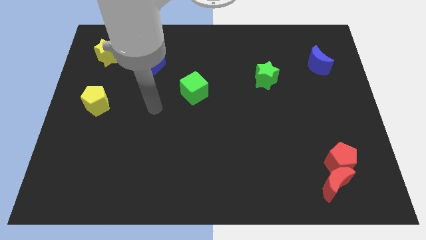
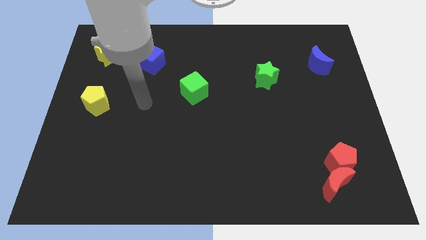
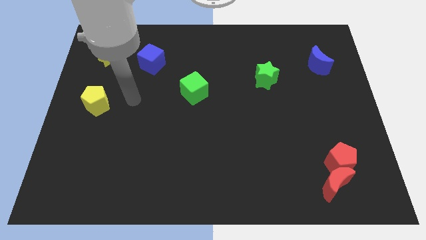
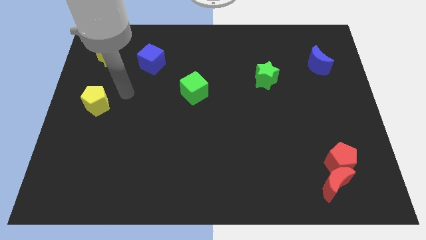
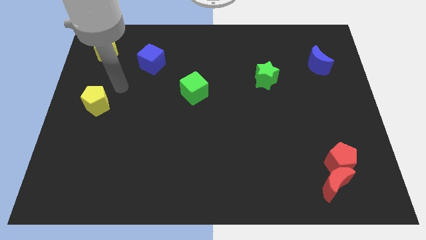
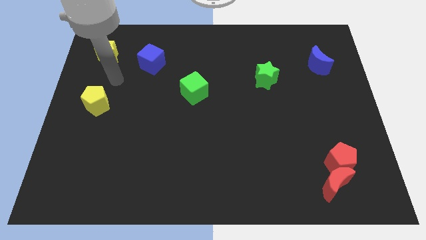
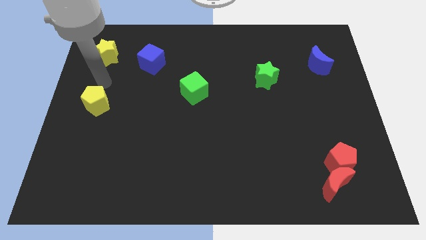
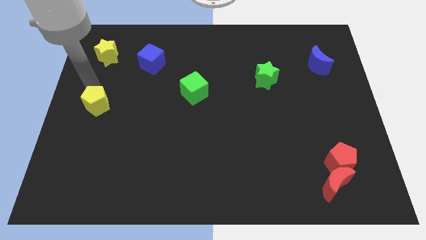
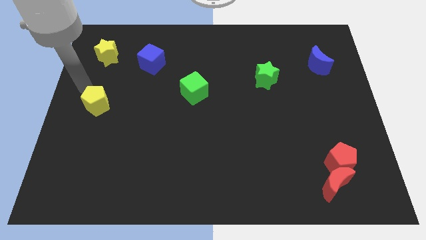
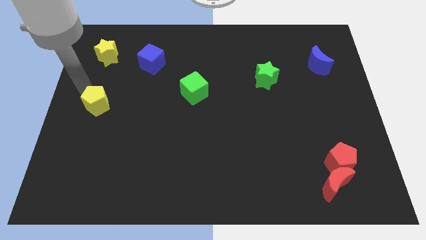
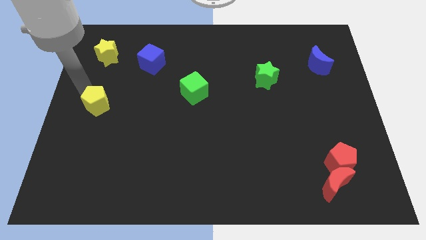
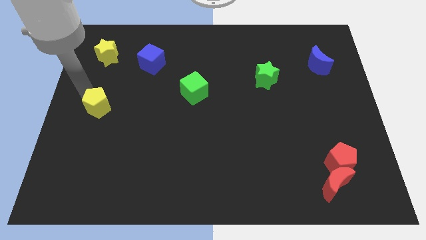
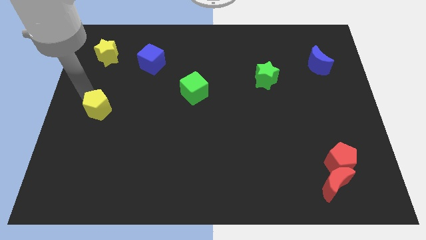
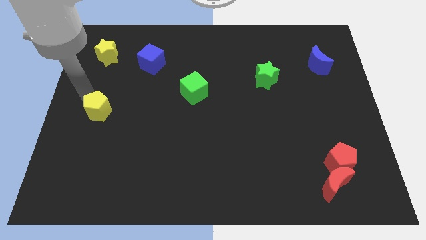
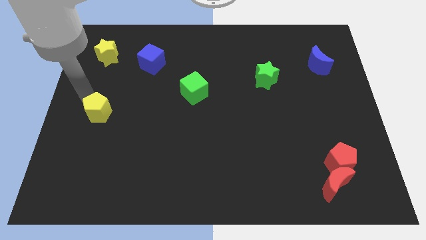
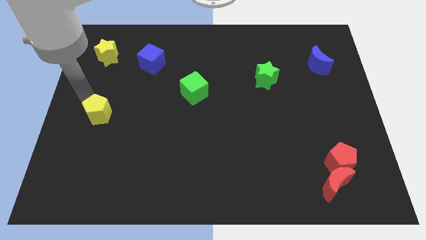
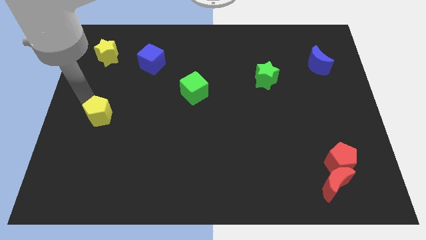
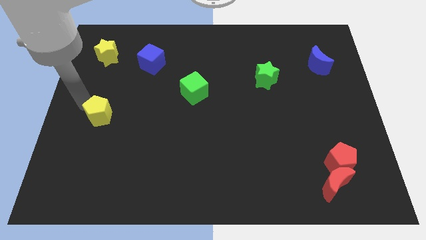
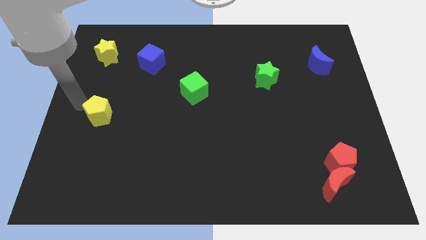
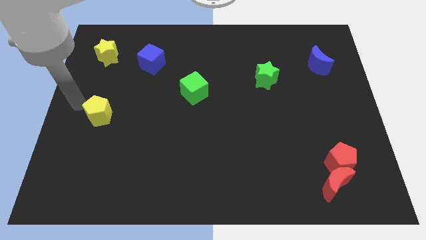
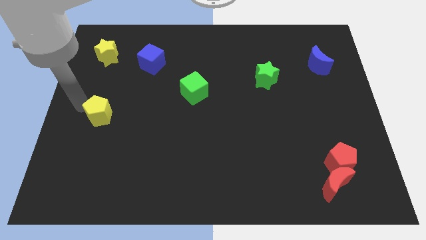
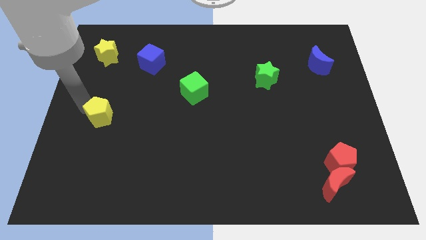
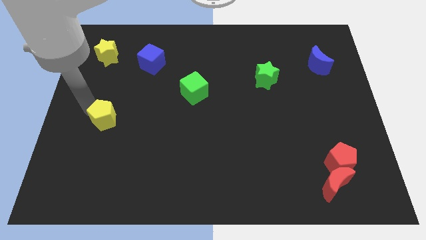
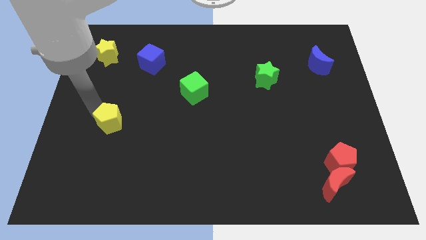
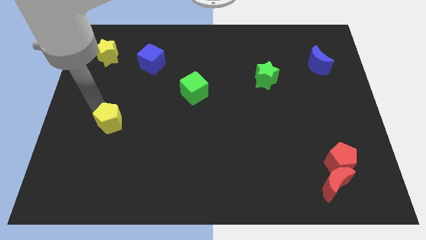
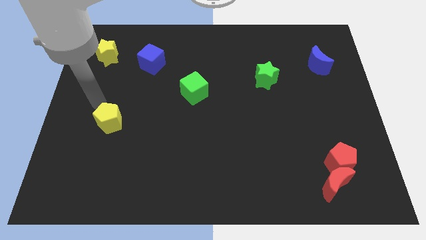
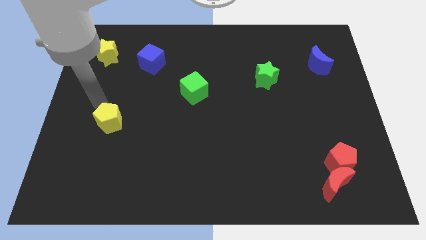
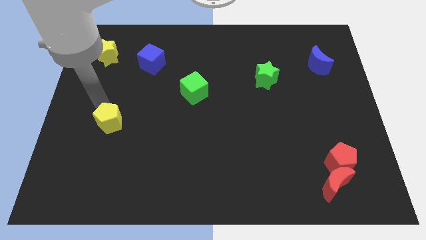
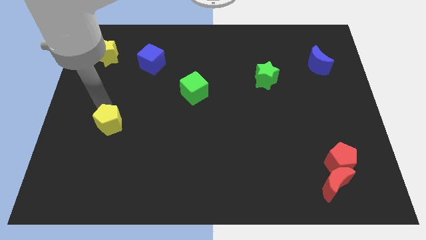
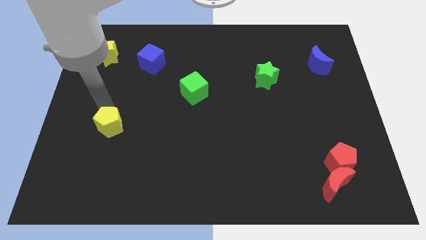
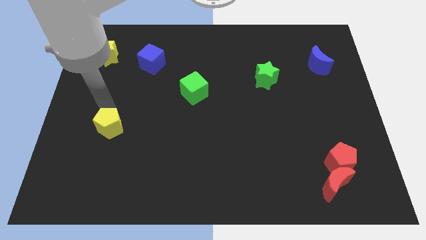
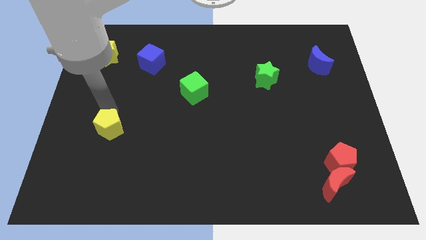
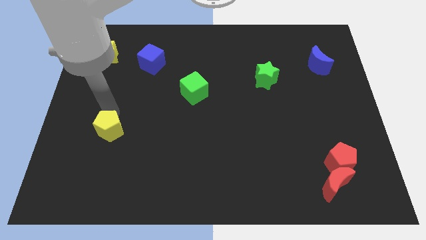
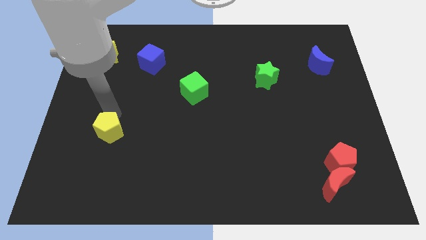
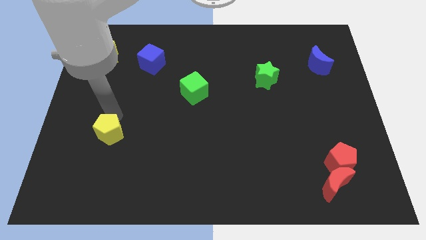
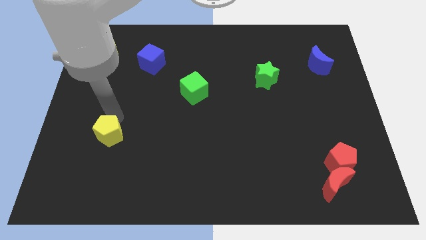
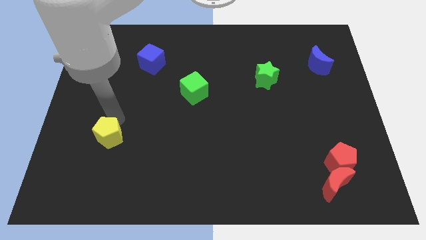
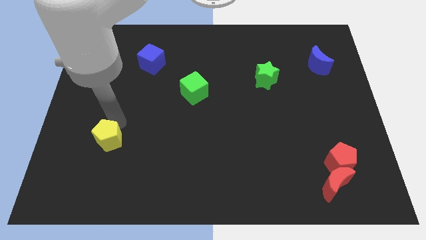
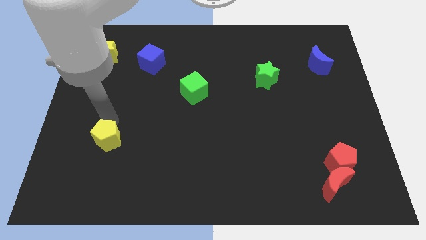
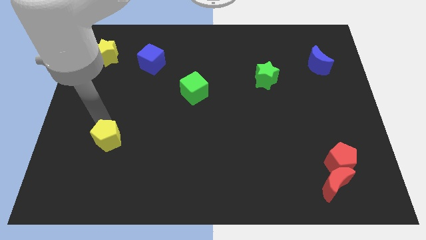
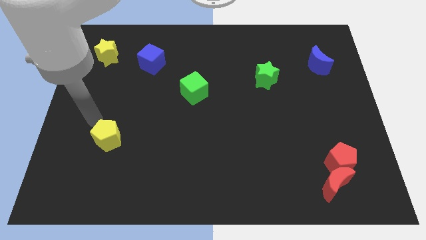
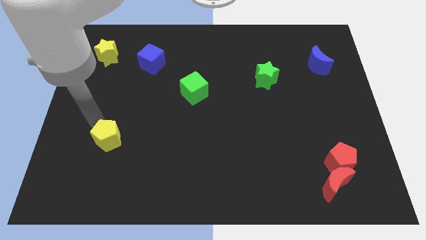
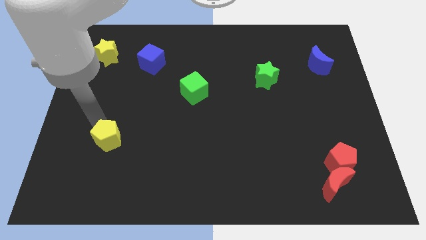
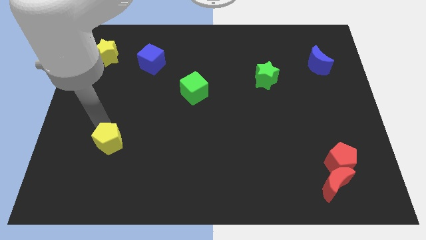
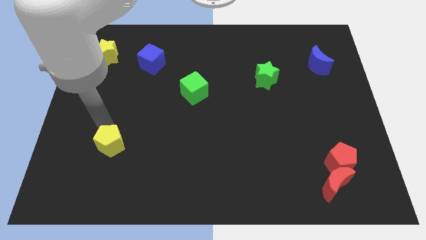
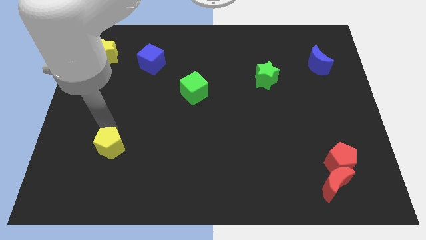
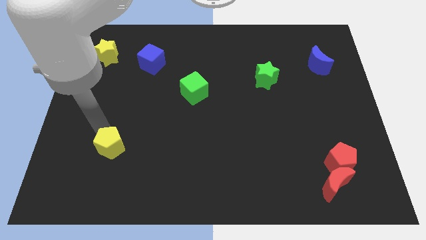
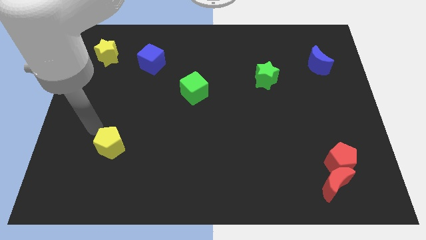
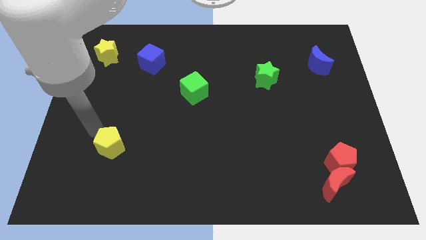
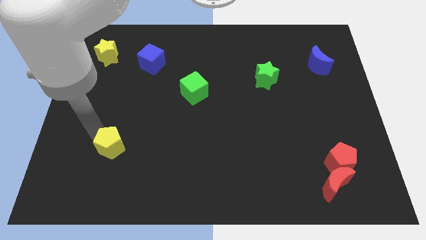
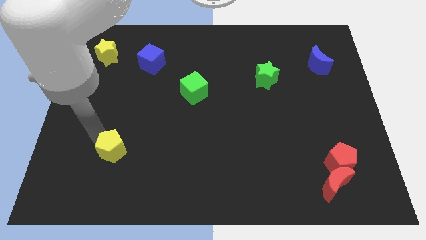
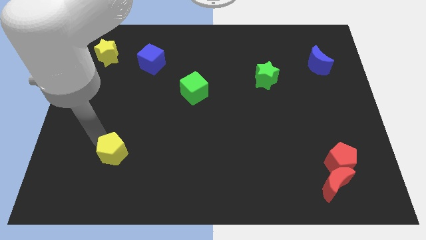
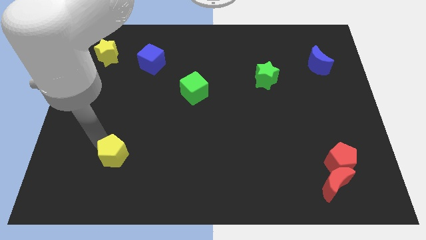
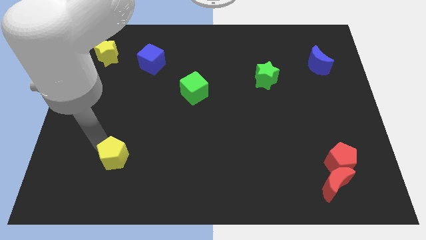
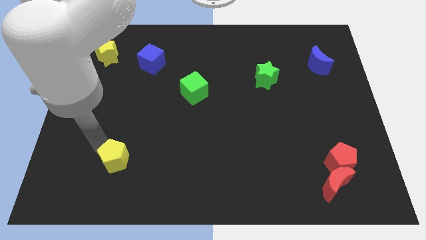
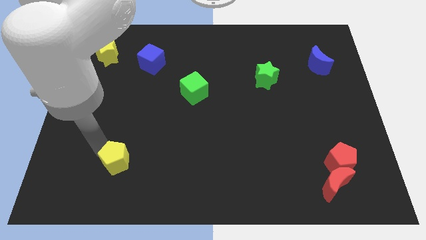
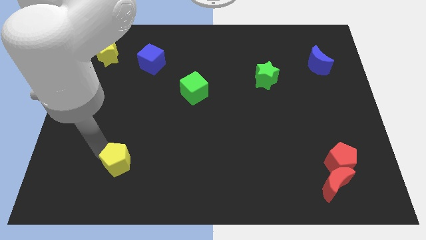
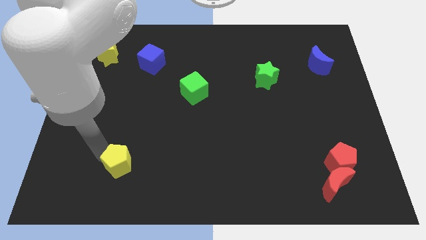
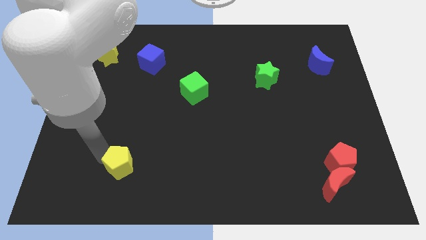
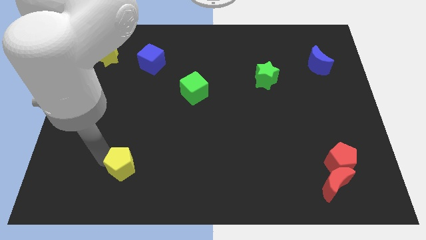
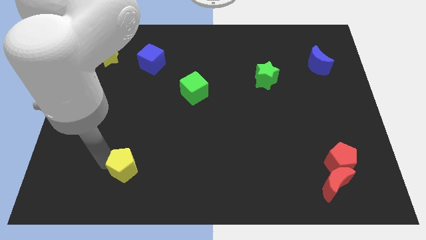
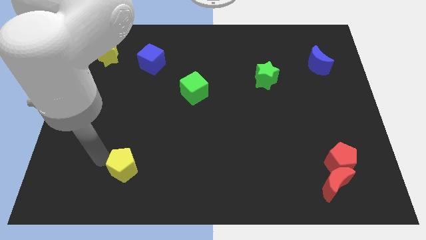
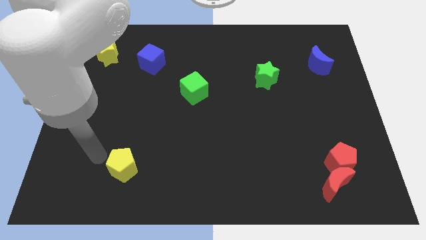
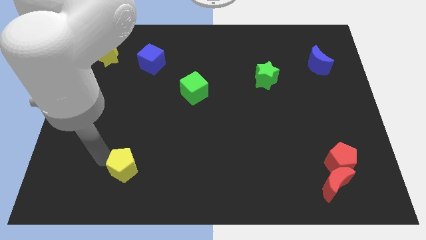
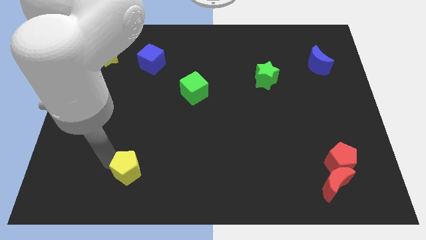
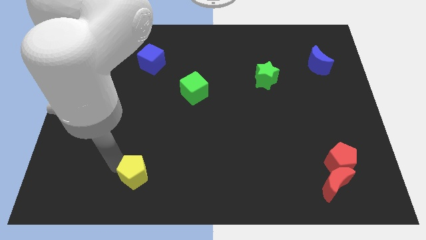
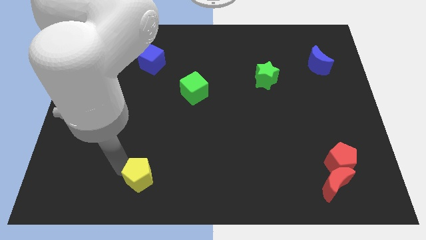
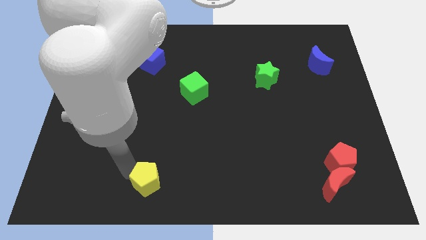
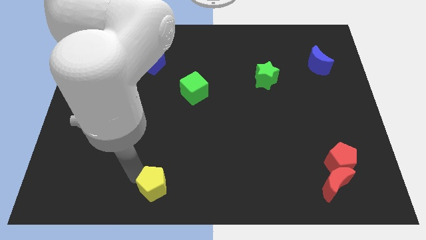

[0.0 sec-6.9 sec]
push the yellow pentagon to the bottom

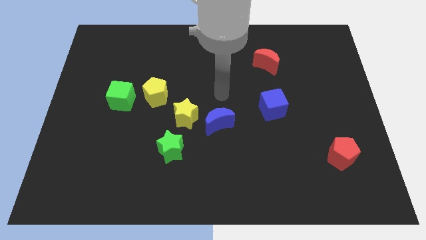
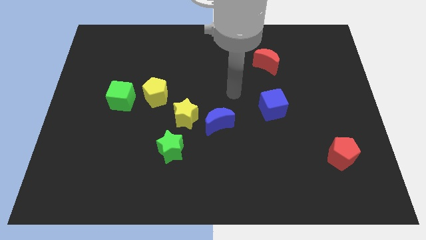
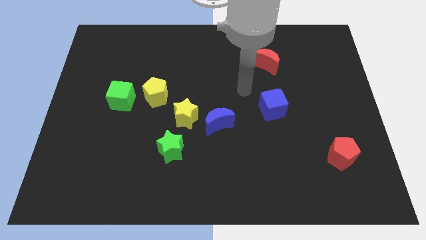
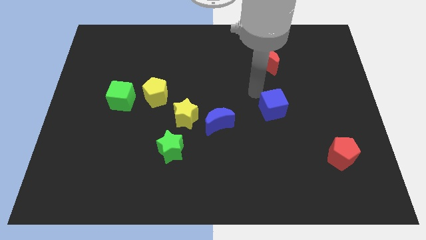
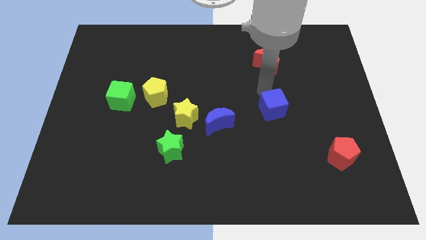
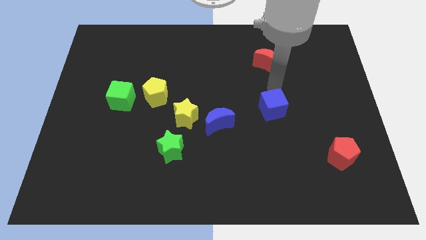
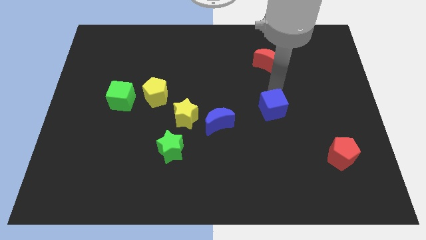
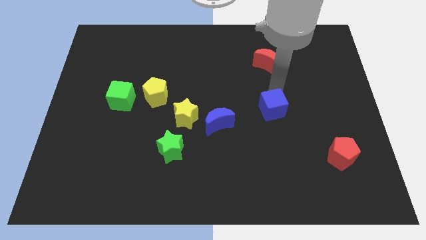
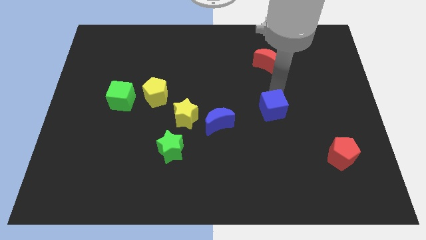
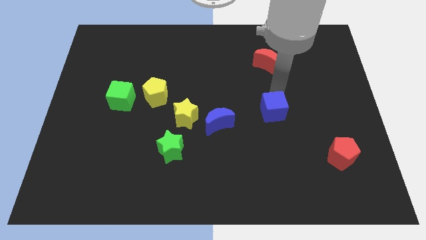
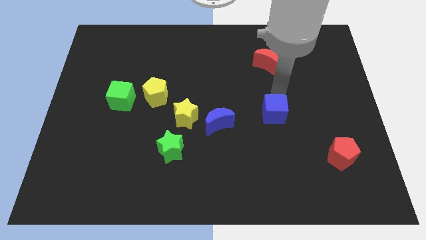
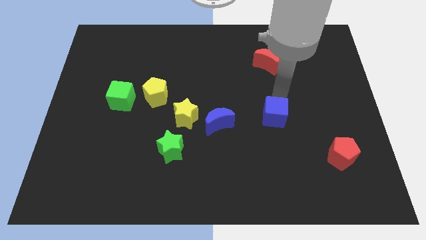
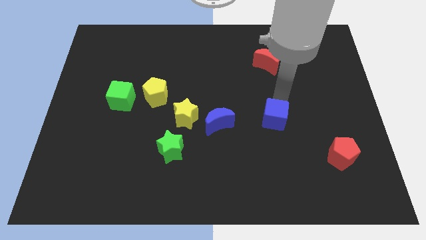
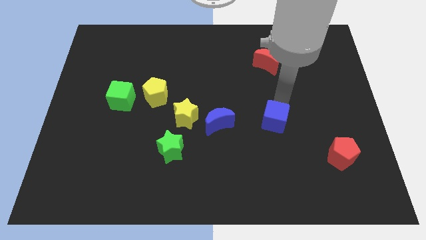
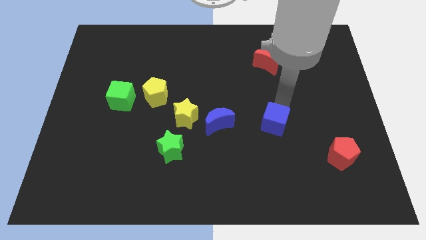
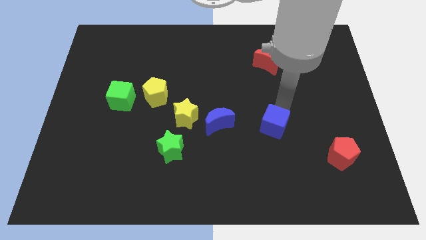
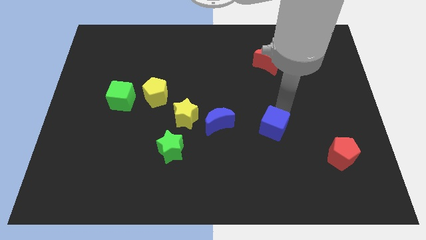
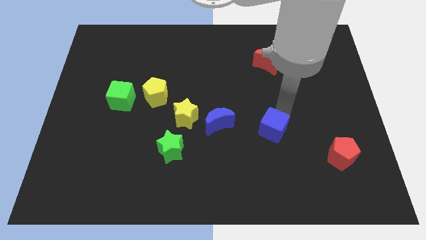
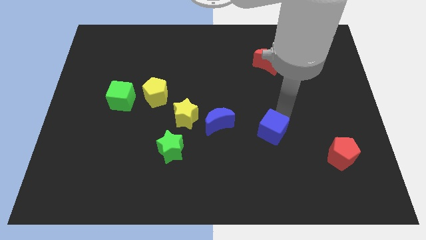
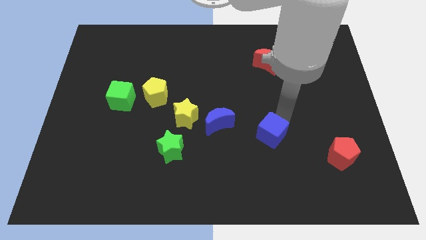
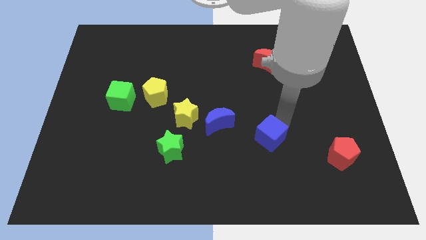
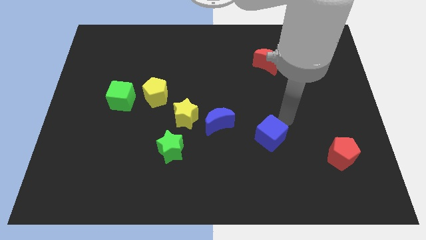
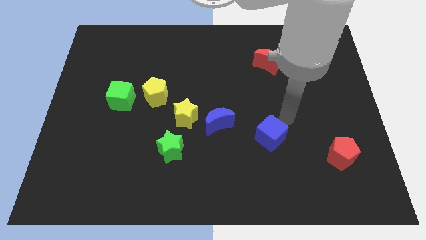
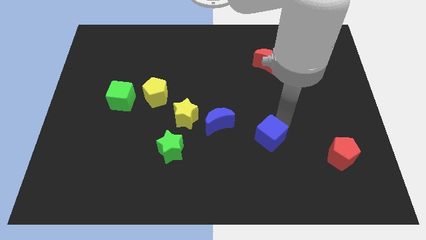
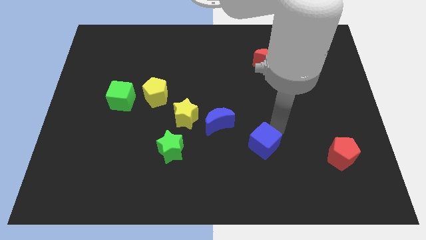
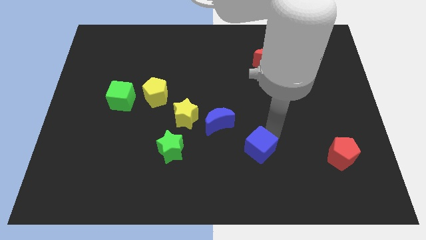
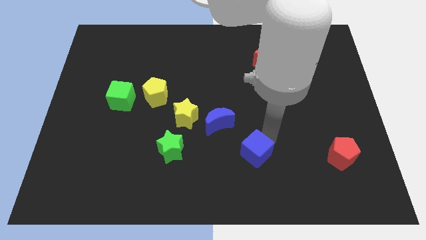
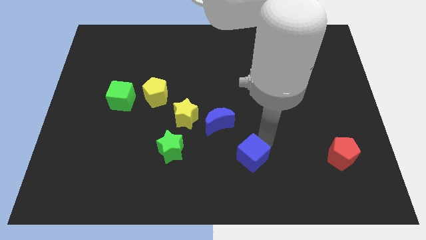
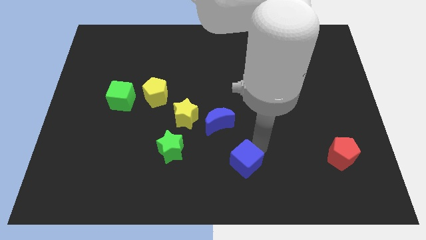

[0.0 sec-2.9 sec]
move the blue cube to the bottom
